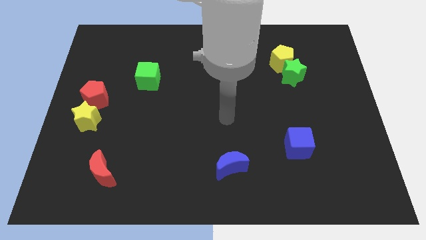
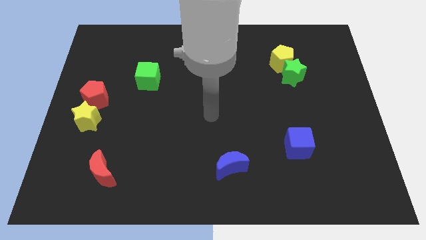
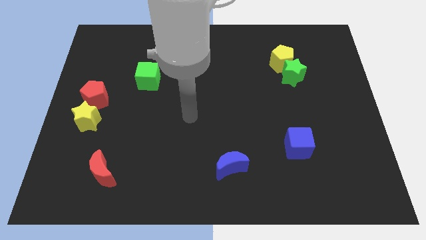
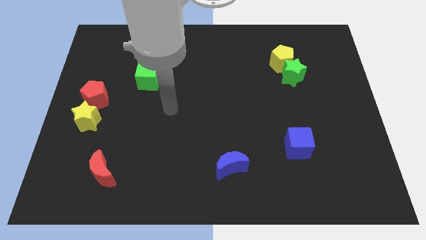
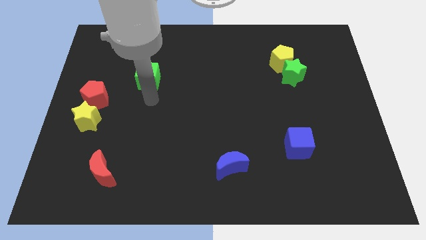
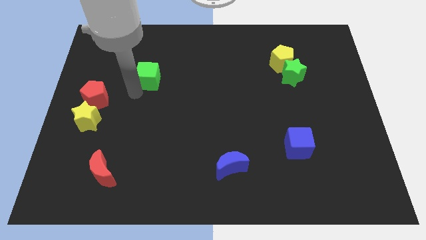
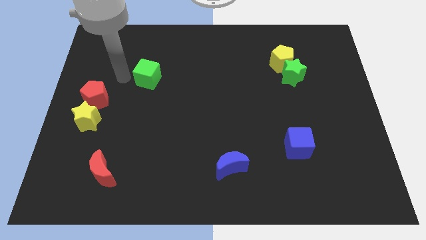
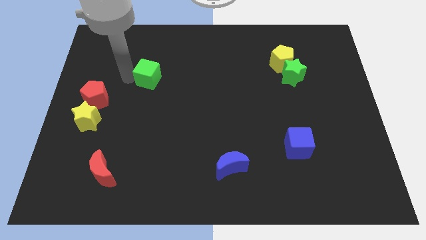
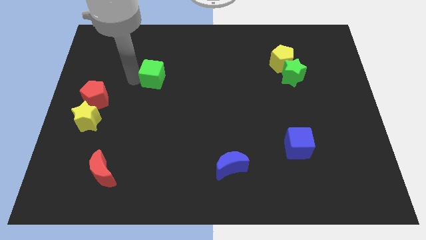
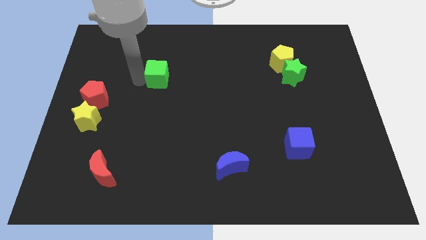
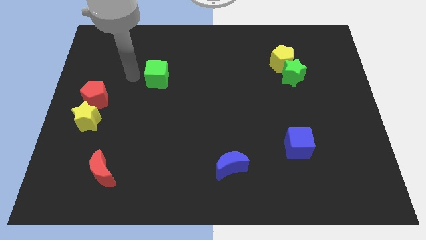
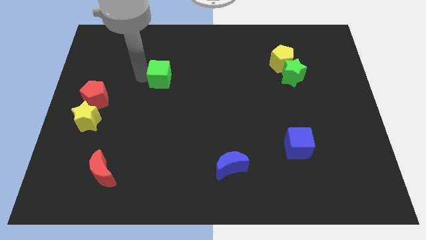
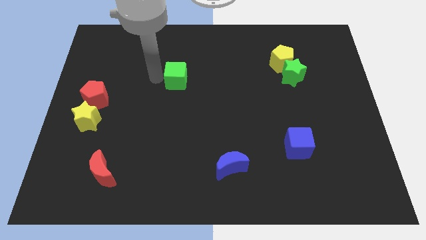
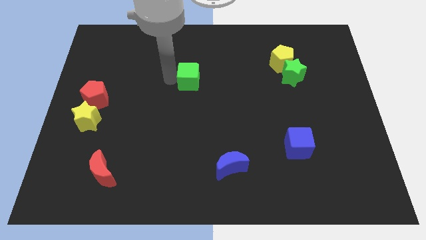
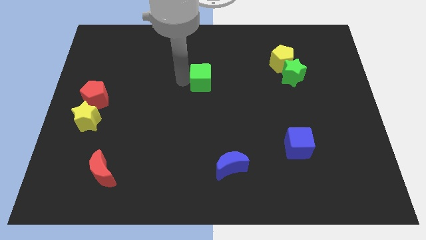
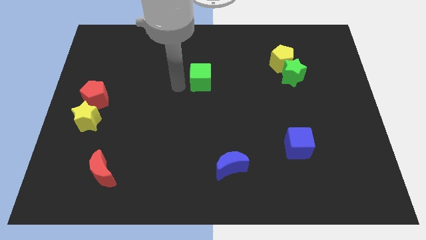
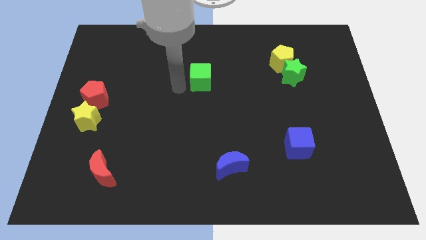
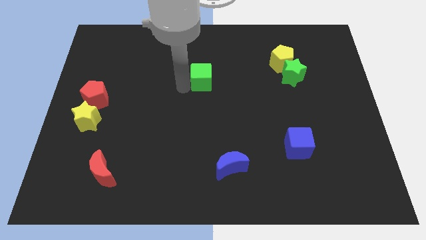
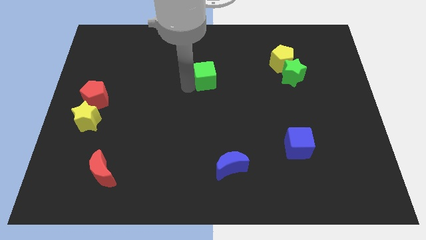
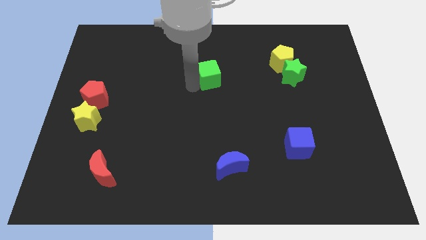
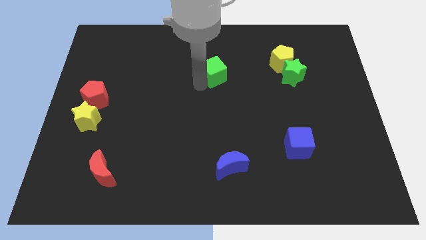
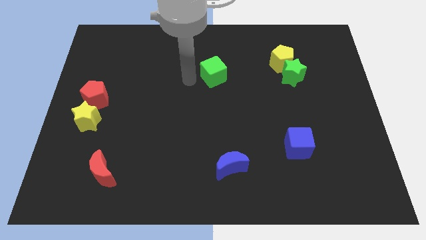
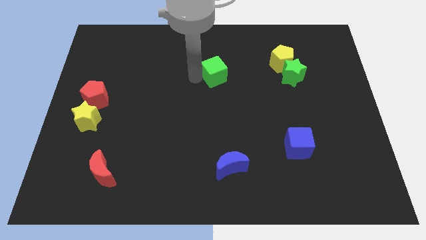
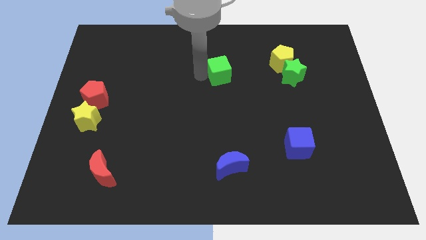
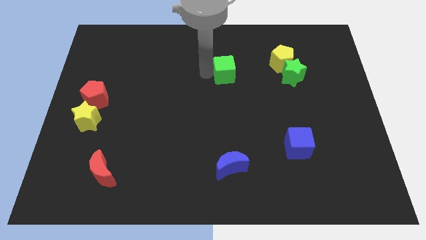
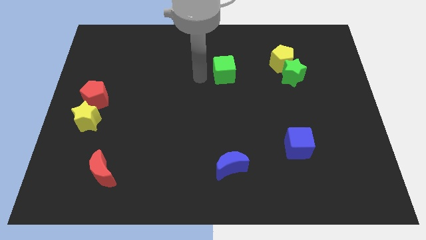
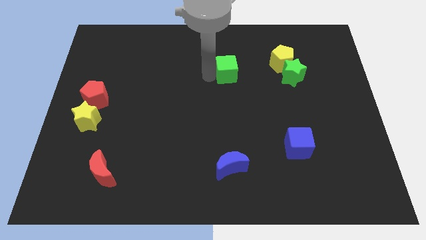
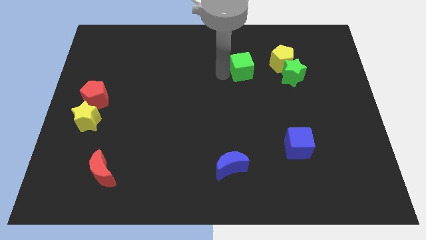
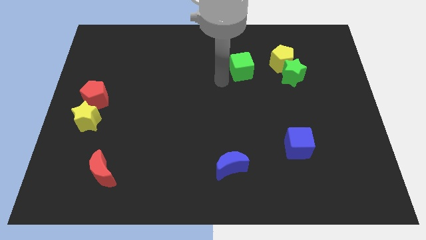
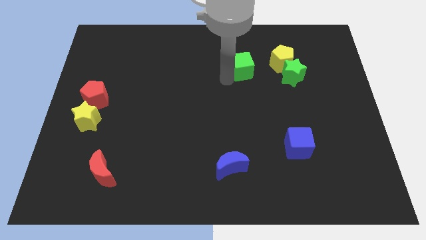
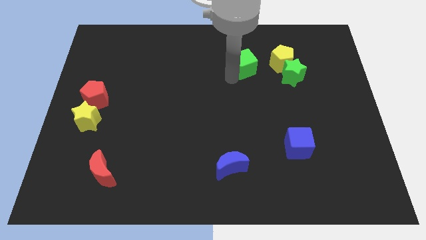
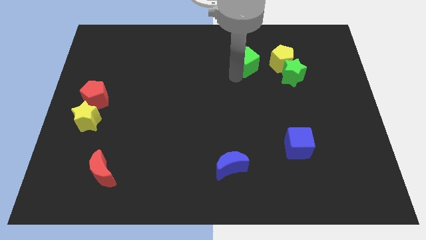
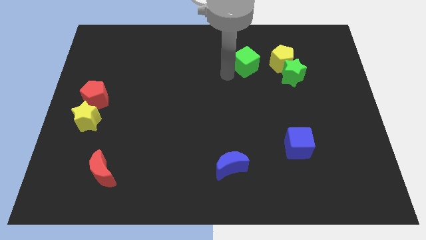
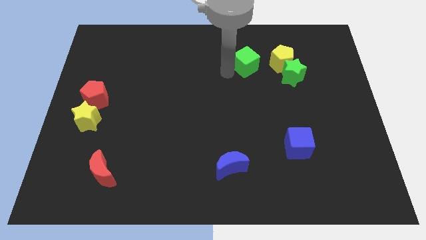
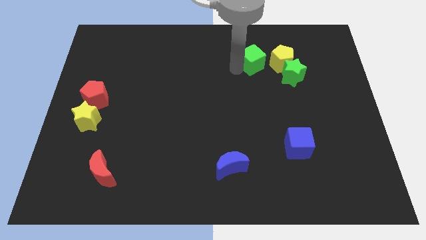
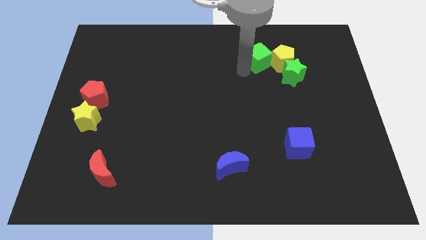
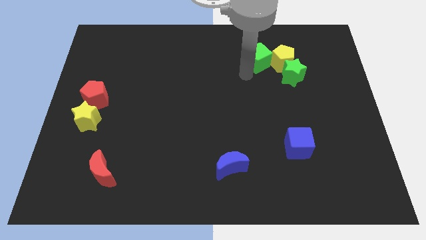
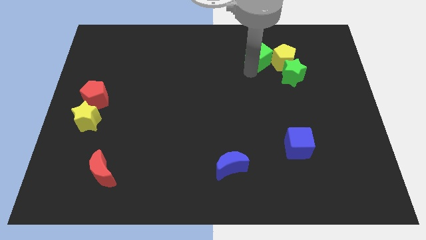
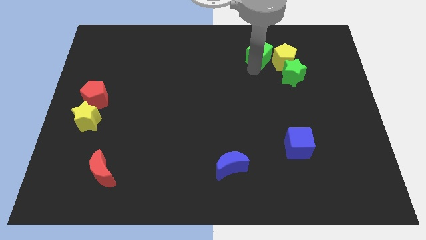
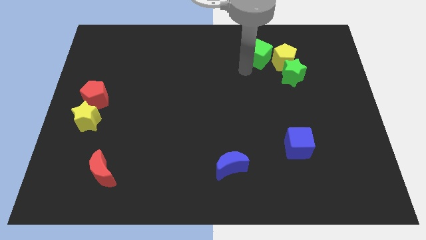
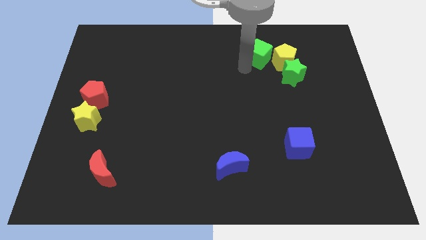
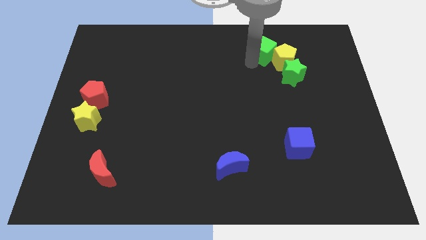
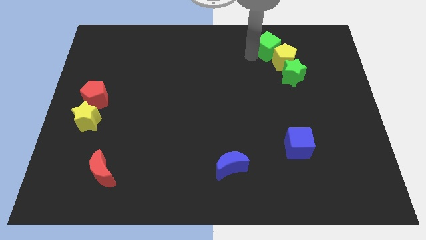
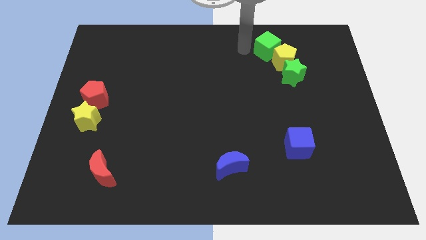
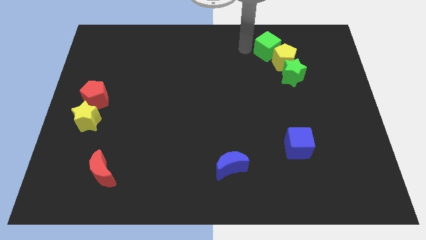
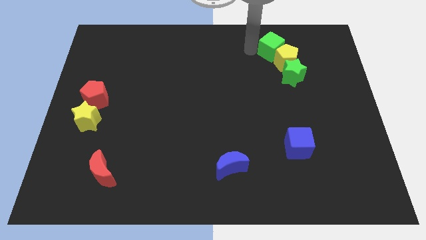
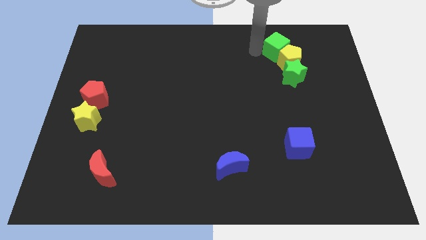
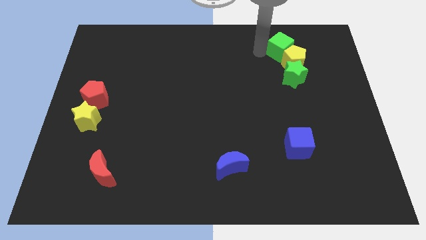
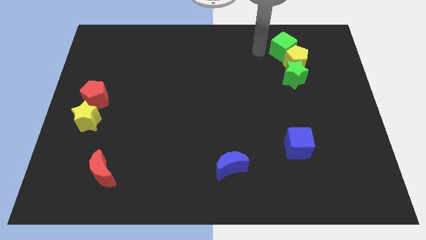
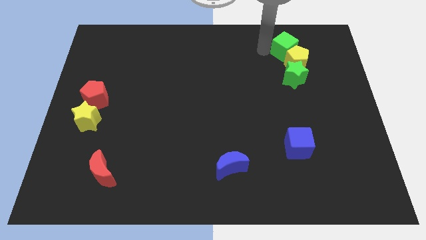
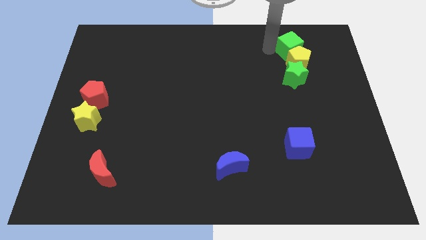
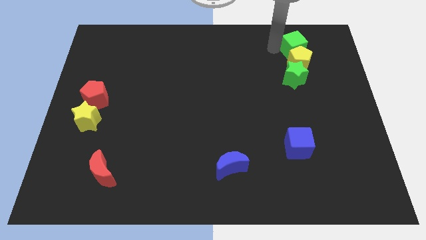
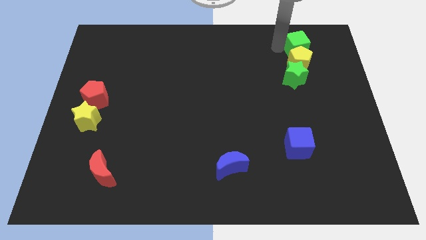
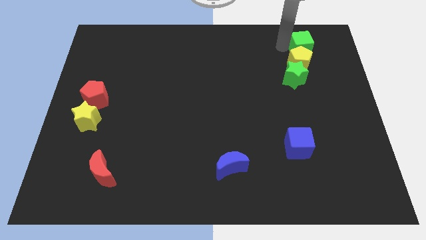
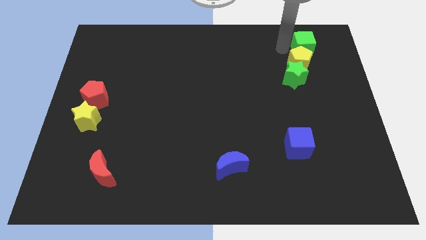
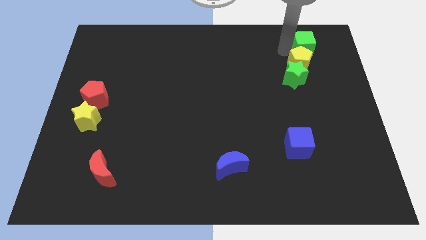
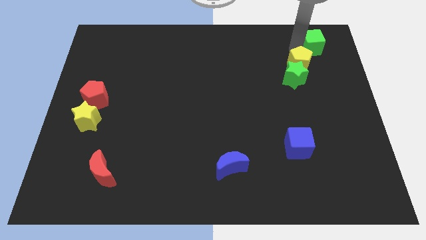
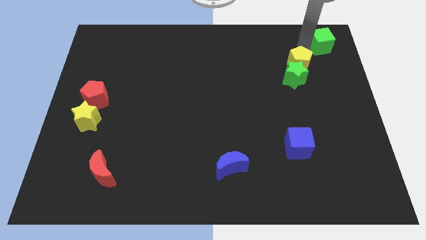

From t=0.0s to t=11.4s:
push the green cube to the top right
